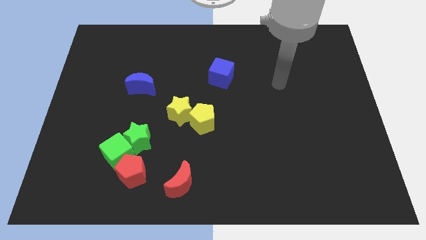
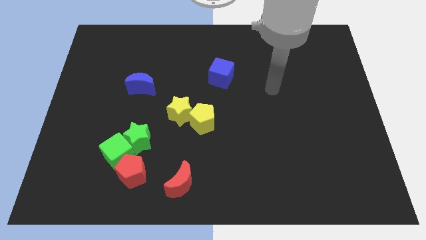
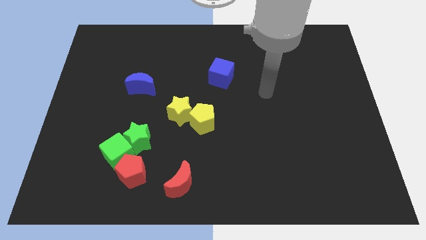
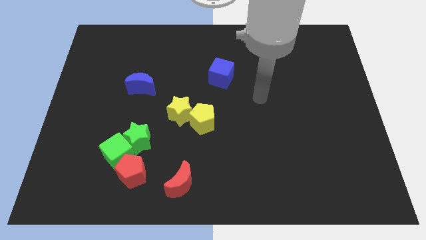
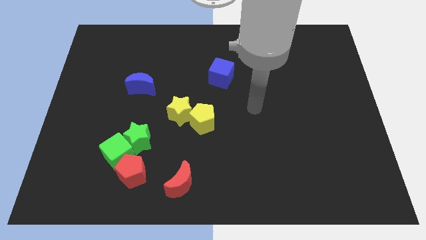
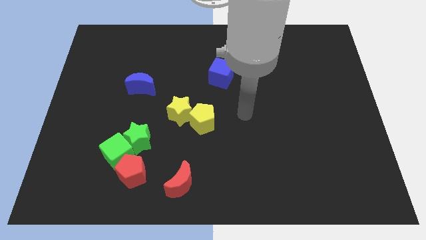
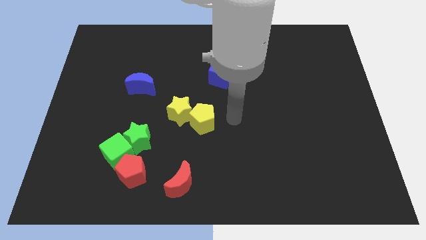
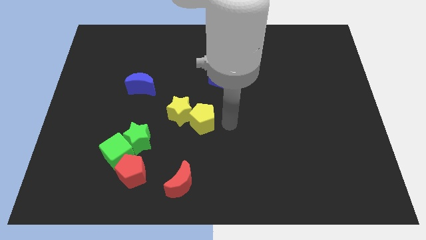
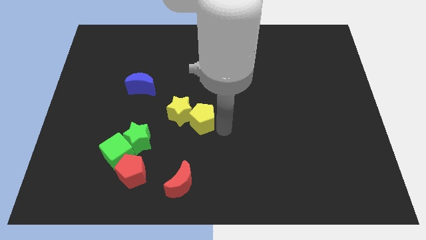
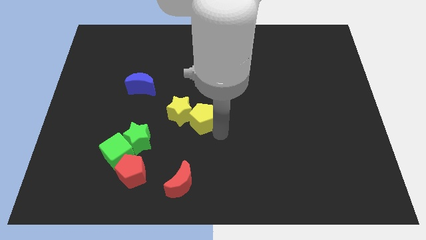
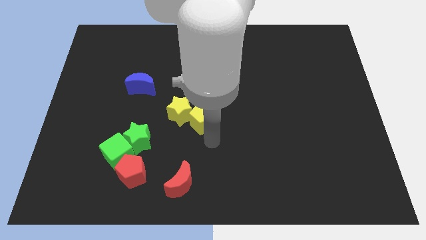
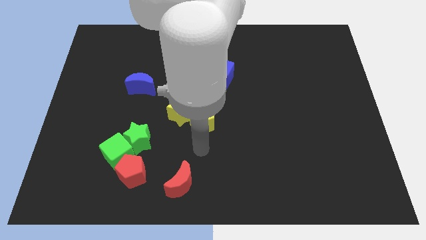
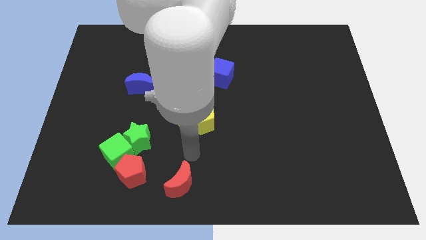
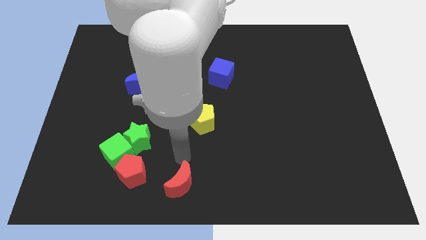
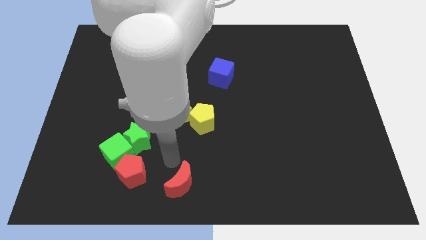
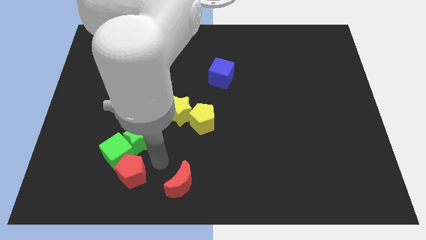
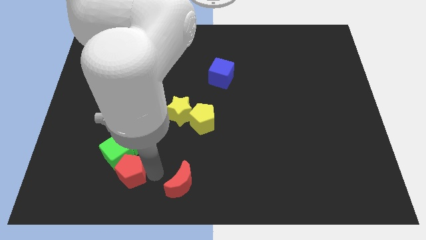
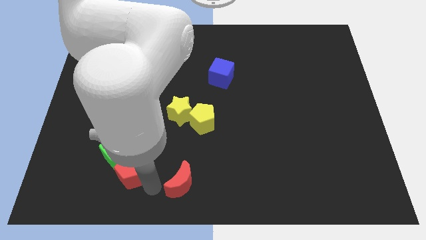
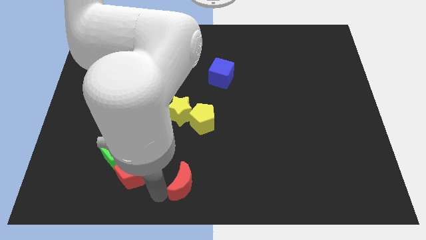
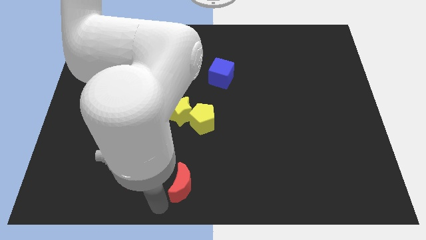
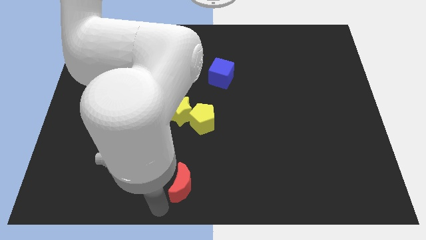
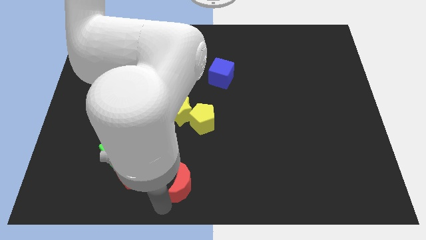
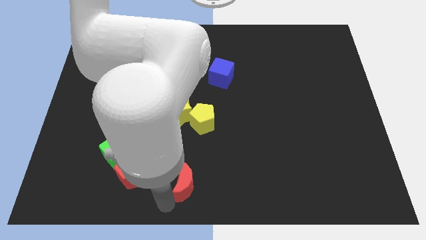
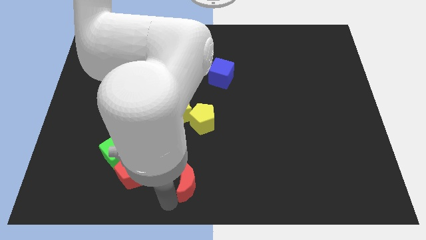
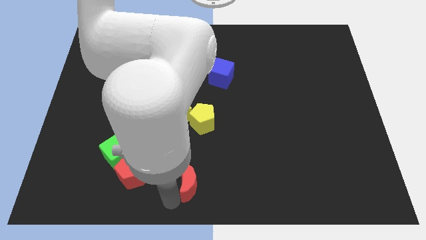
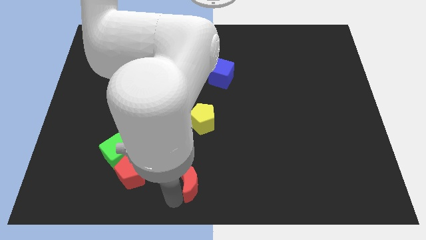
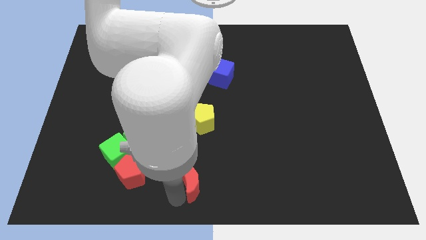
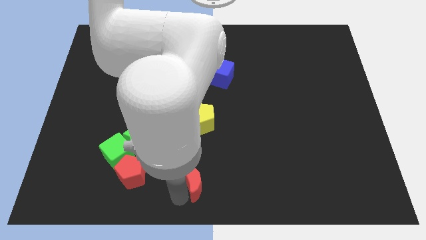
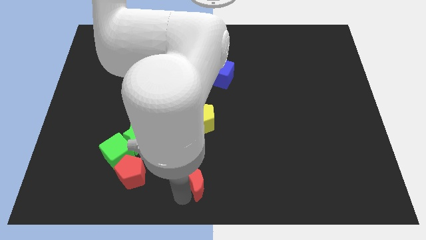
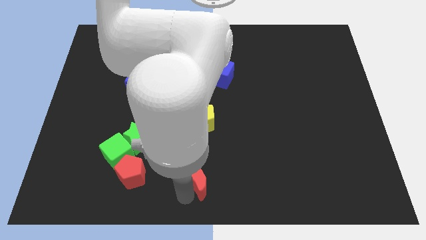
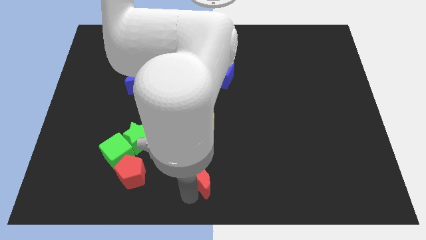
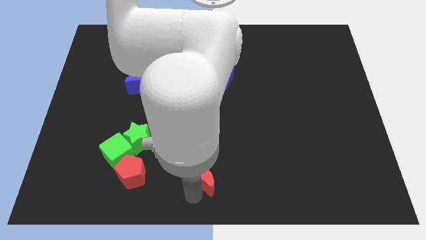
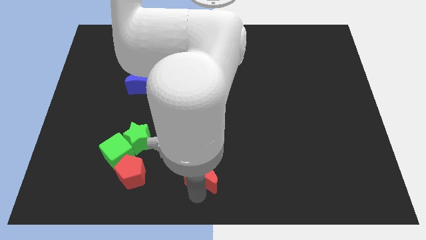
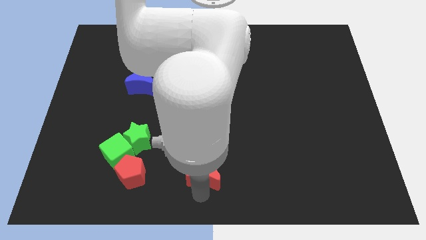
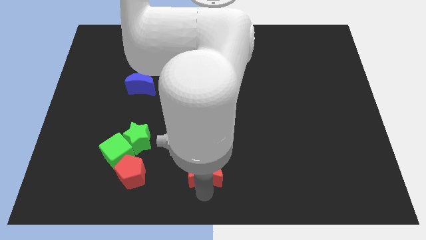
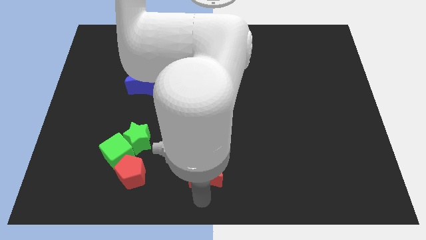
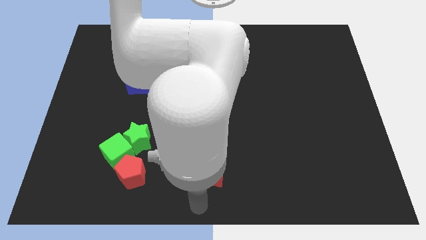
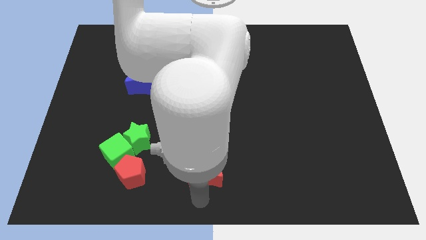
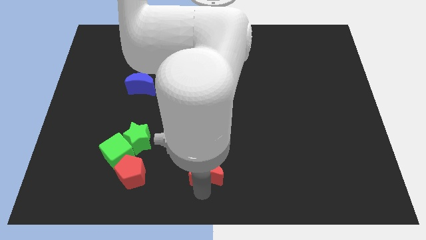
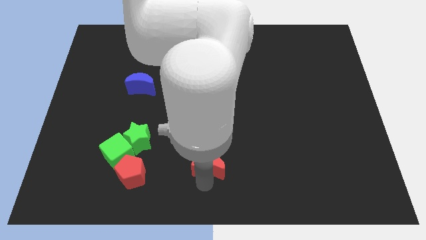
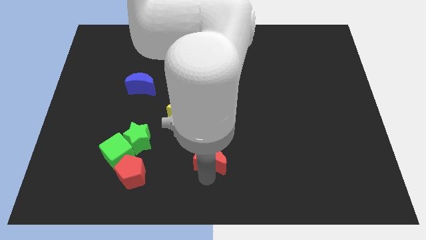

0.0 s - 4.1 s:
push the red moon up and then to the right slightly

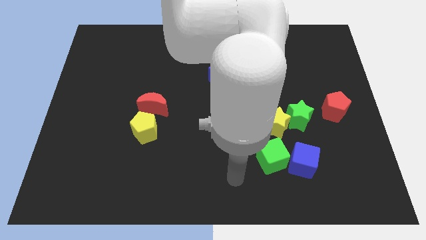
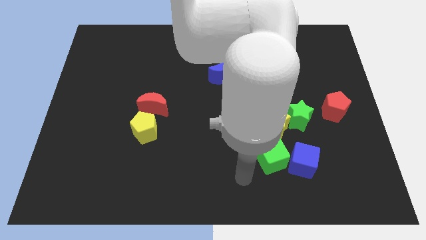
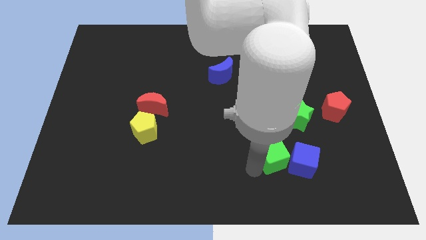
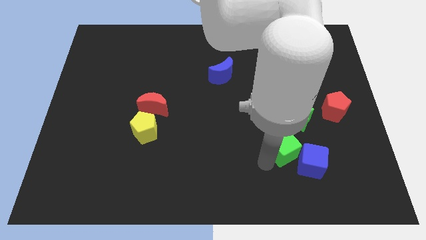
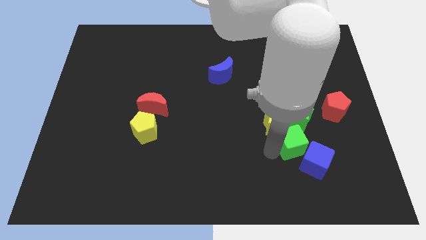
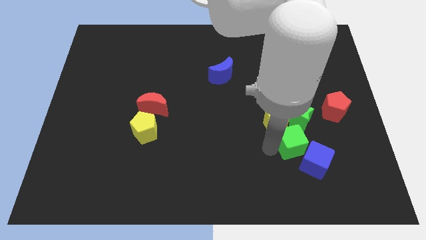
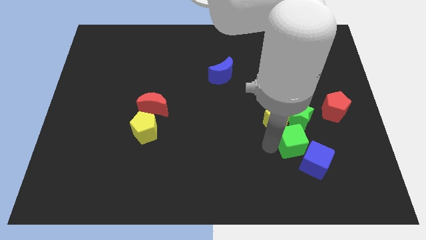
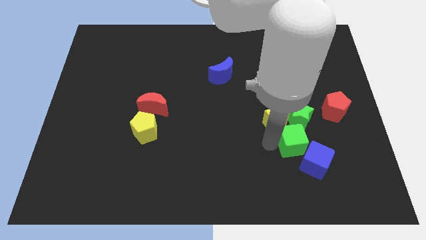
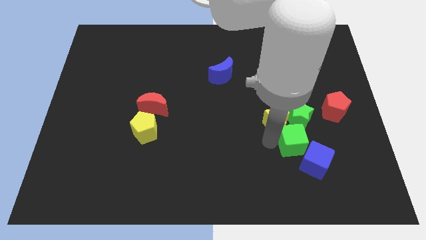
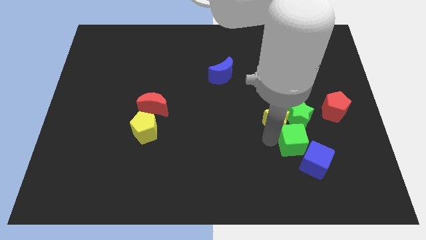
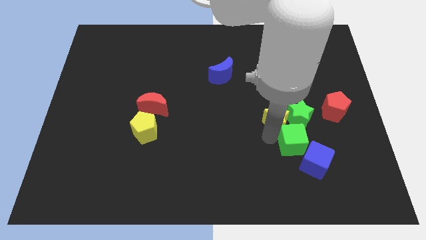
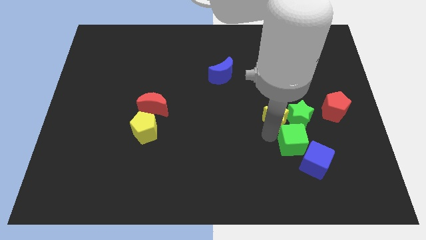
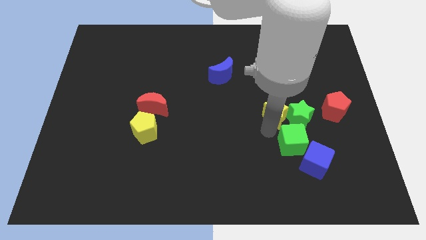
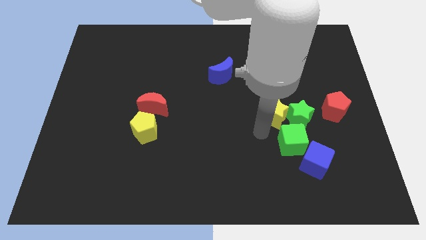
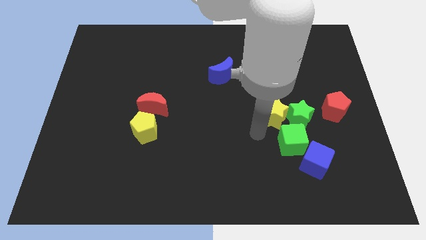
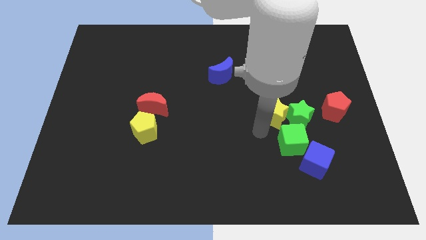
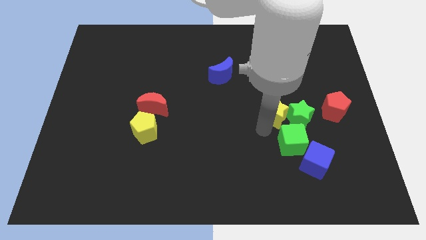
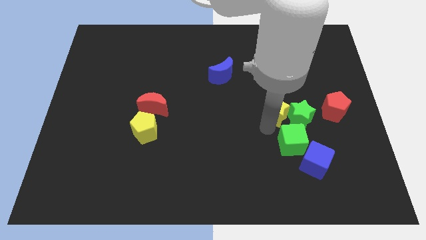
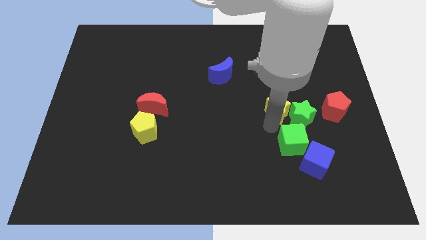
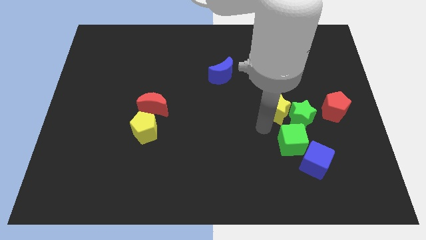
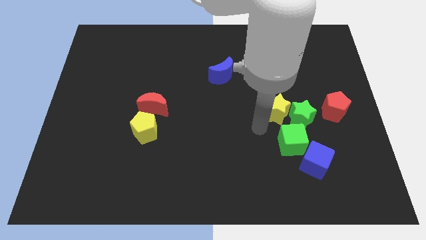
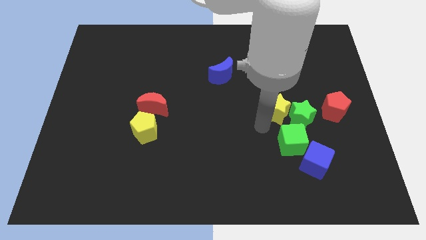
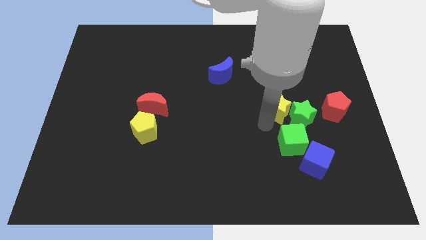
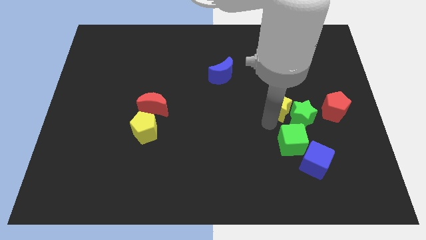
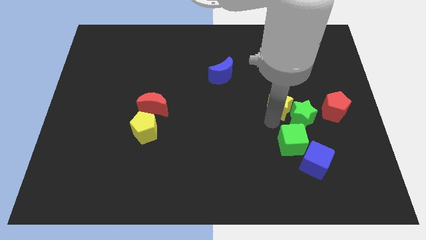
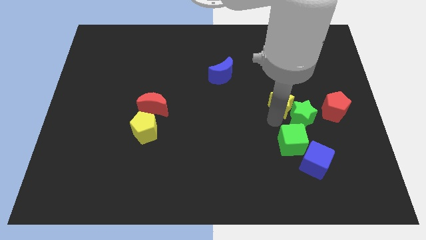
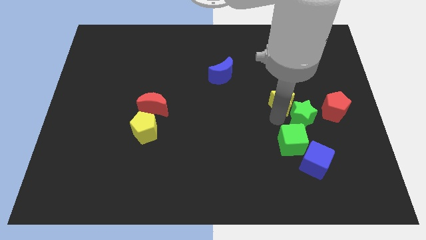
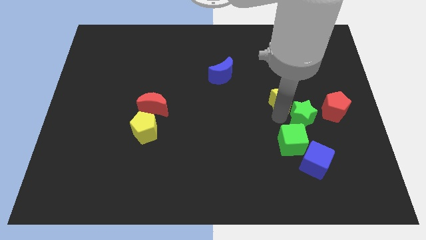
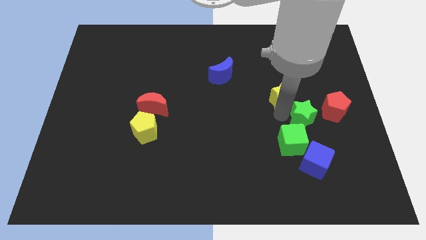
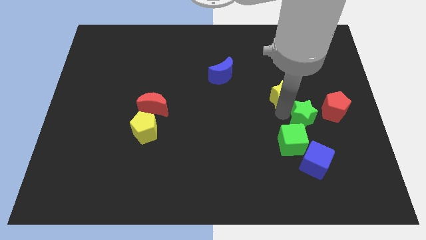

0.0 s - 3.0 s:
slide the yellow star somewhat upwards and then right

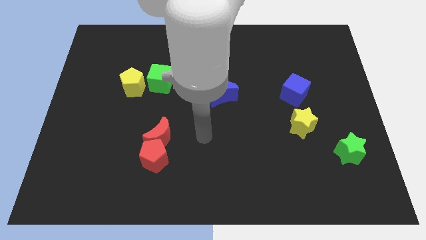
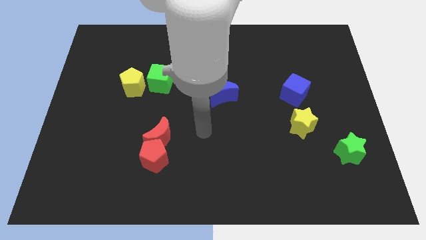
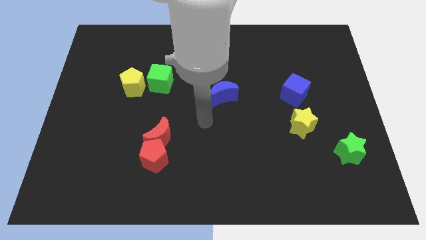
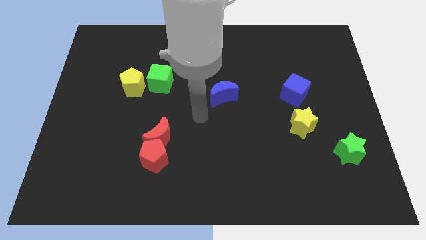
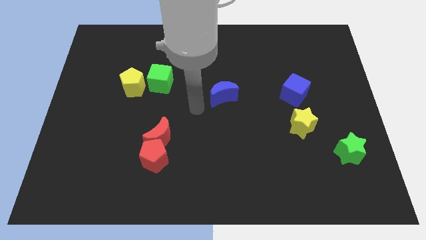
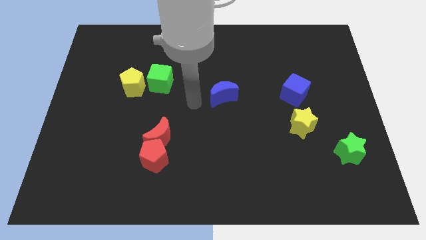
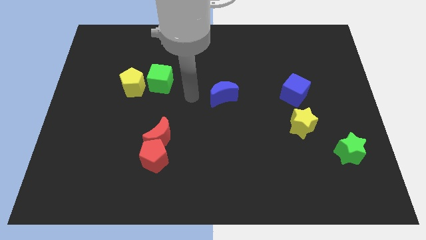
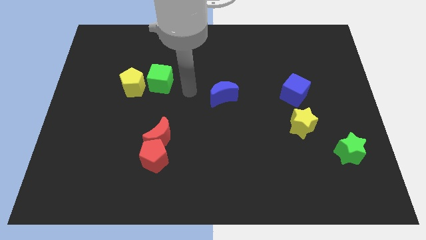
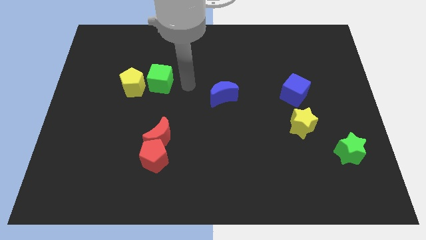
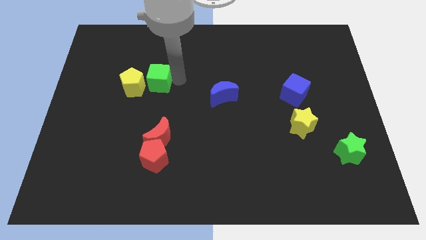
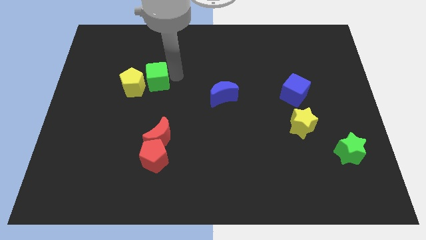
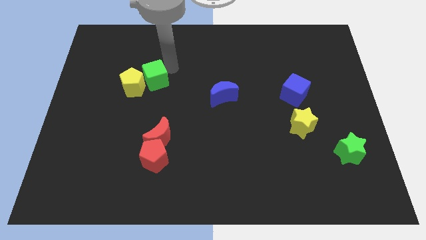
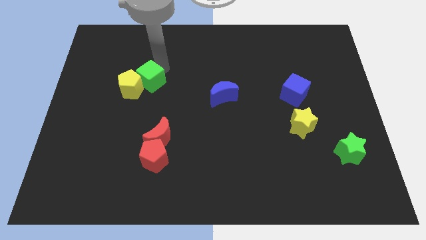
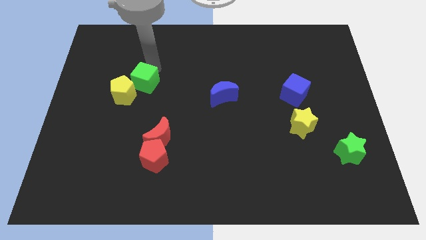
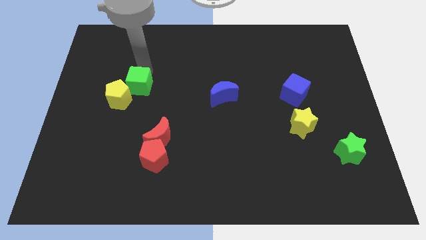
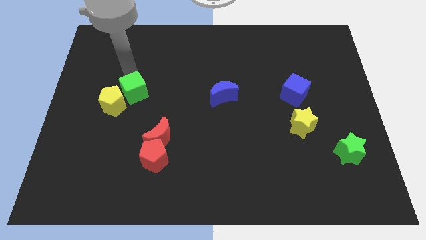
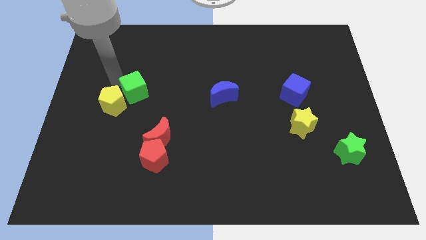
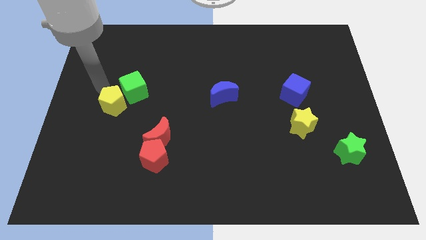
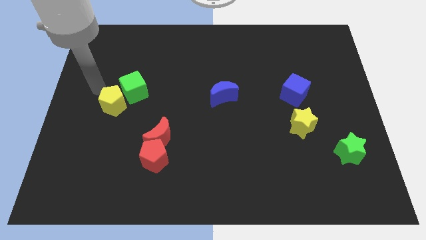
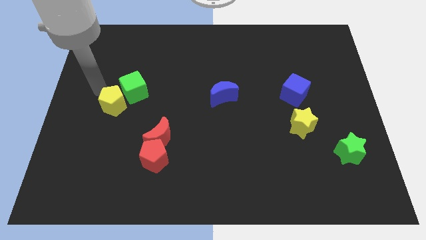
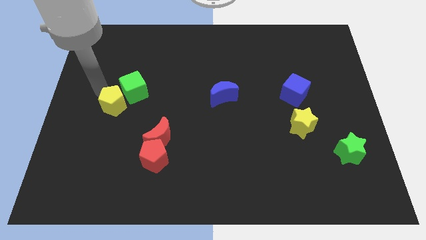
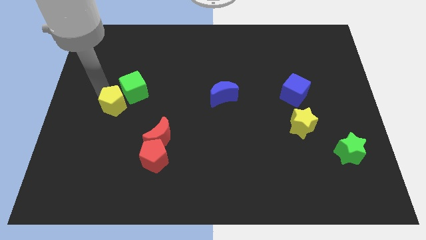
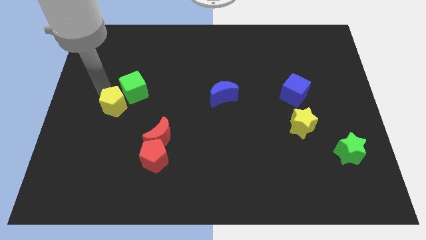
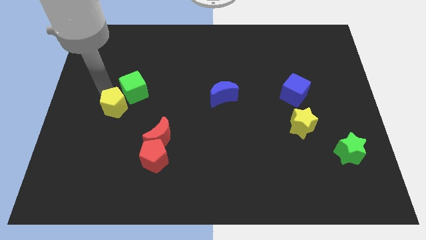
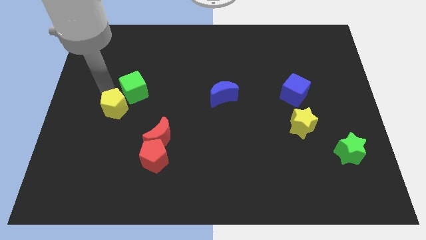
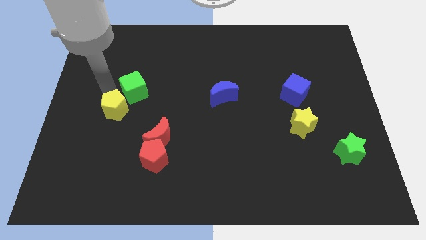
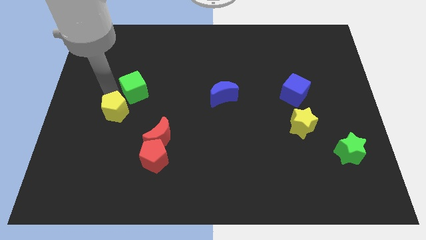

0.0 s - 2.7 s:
move the yellow pentagon downwards somewhat
